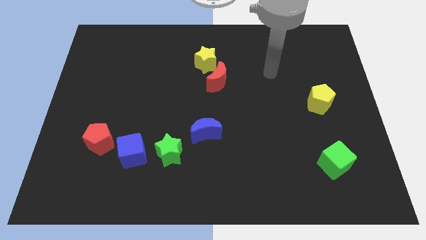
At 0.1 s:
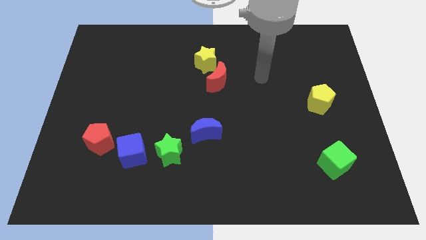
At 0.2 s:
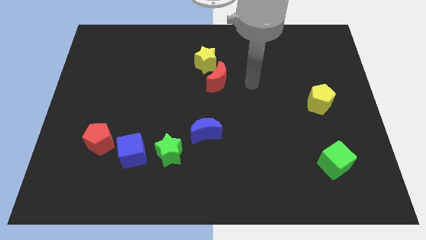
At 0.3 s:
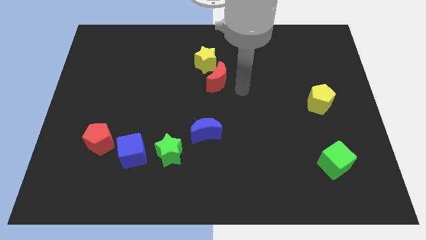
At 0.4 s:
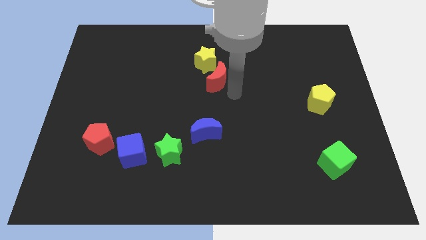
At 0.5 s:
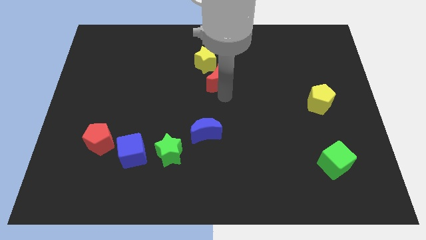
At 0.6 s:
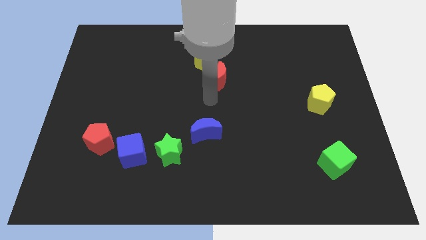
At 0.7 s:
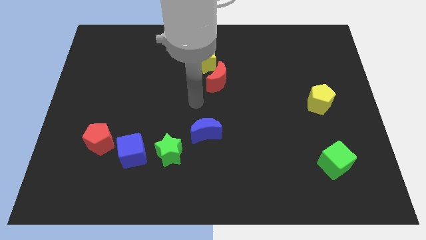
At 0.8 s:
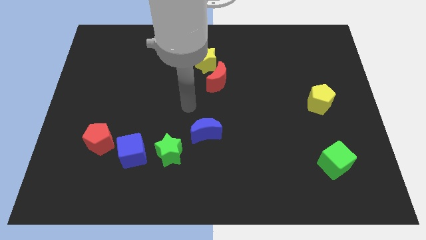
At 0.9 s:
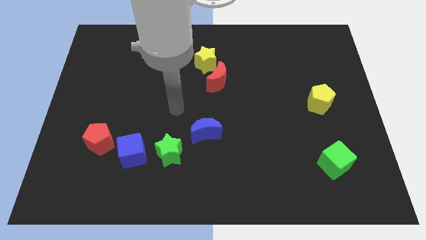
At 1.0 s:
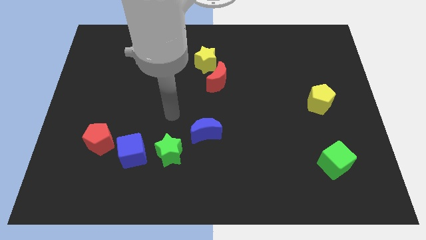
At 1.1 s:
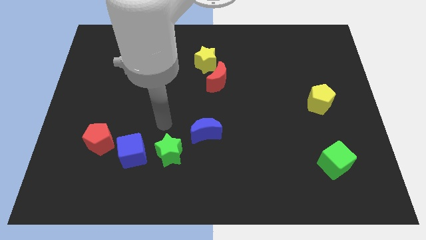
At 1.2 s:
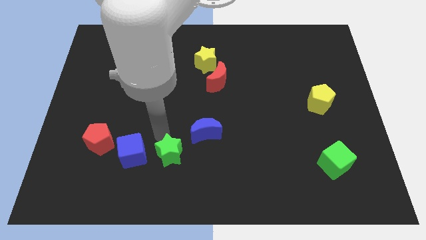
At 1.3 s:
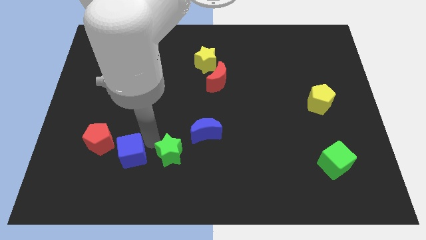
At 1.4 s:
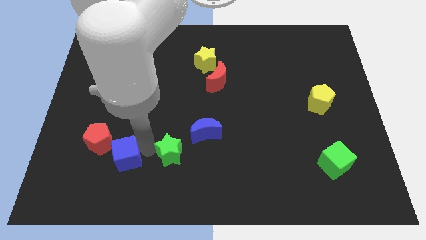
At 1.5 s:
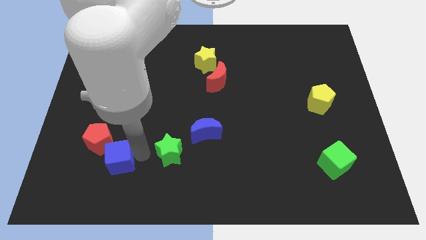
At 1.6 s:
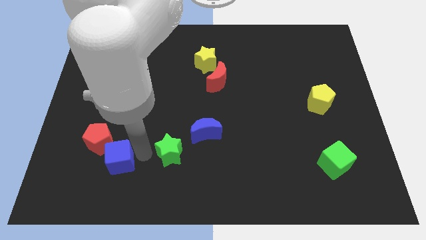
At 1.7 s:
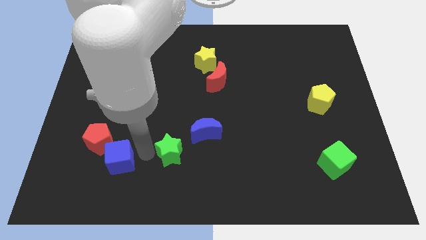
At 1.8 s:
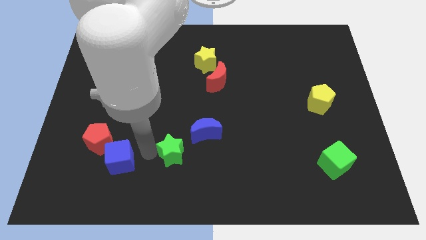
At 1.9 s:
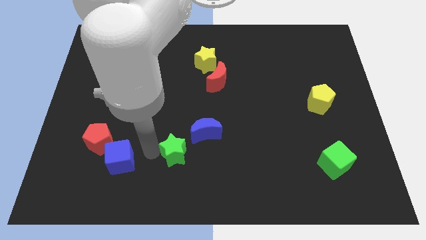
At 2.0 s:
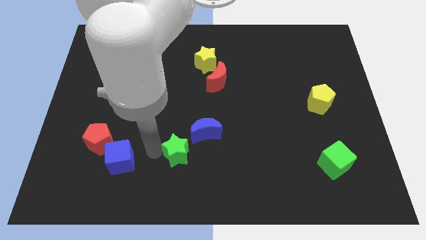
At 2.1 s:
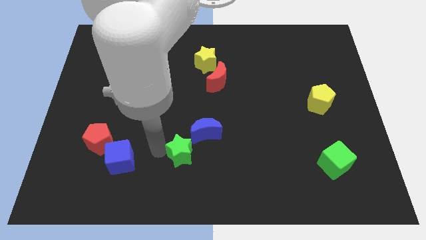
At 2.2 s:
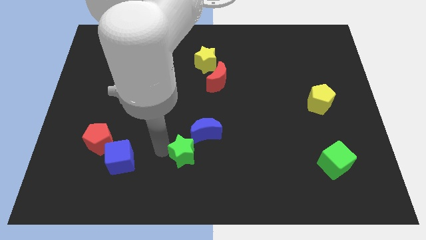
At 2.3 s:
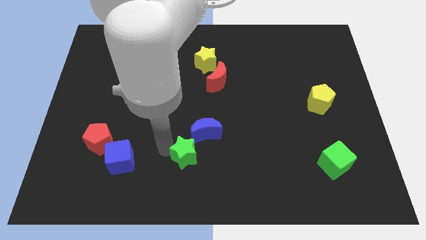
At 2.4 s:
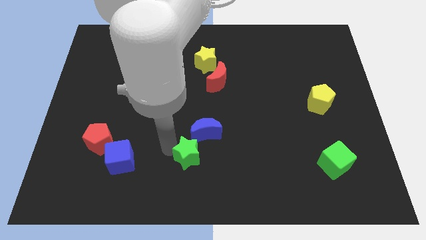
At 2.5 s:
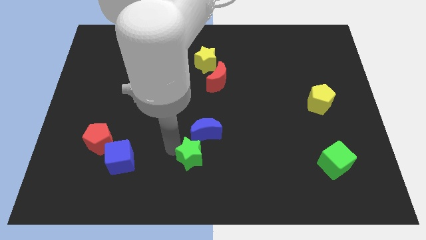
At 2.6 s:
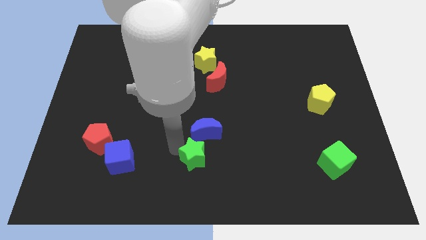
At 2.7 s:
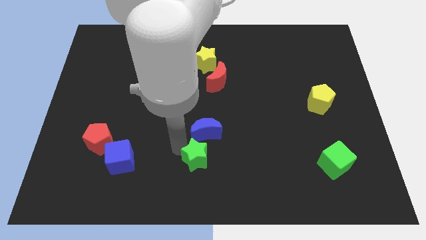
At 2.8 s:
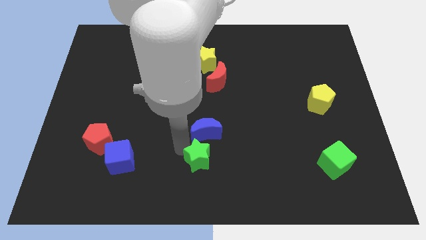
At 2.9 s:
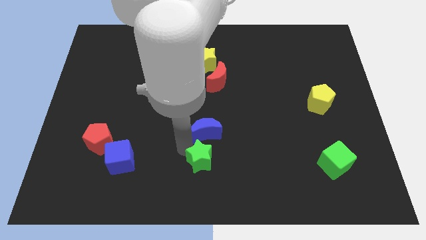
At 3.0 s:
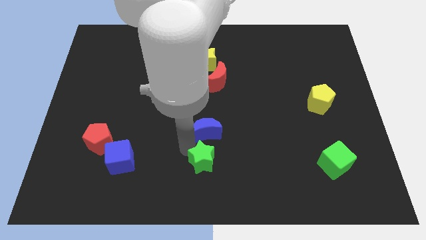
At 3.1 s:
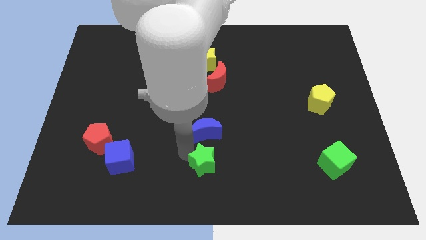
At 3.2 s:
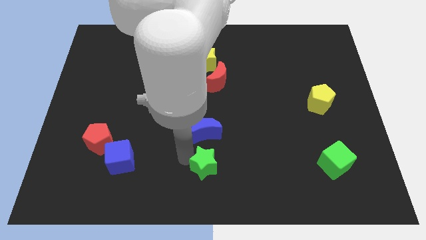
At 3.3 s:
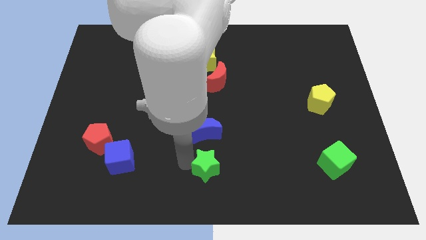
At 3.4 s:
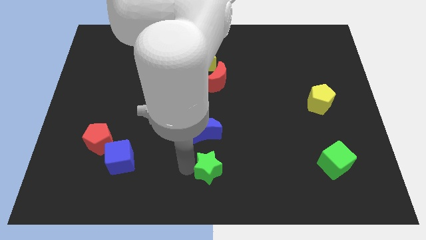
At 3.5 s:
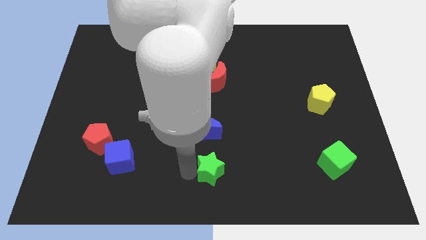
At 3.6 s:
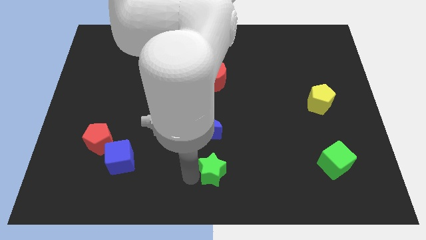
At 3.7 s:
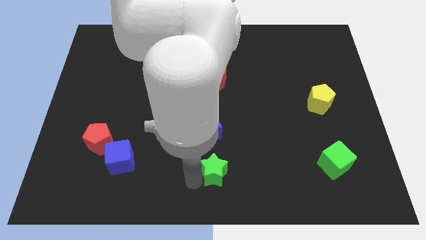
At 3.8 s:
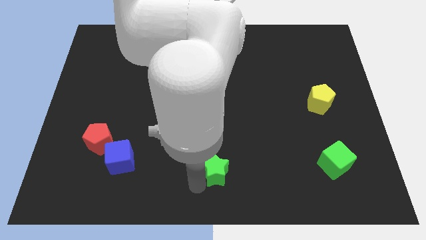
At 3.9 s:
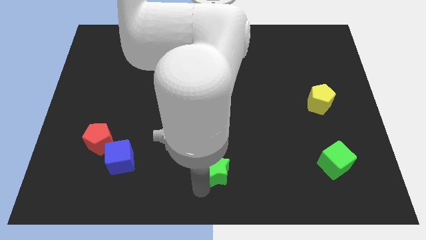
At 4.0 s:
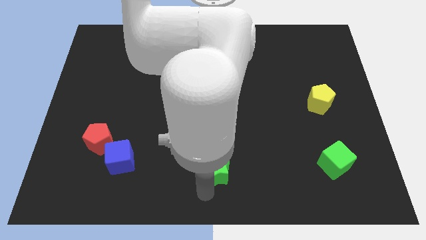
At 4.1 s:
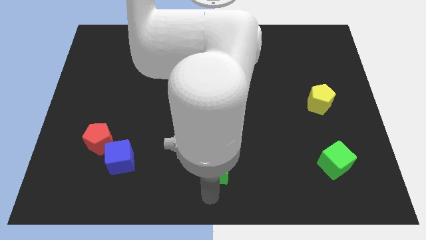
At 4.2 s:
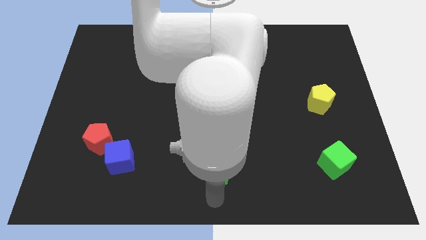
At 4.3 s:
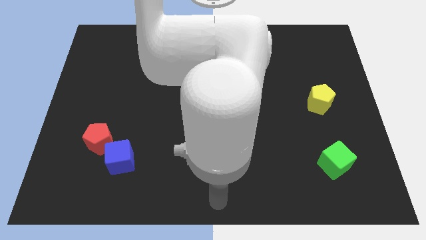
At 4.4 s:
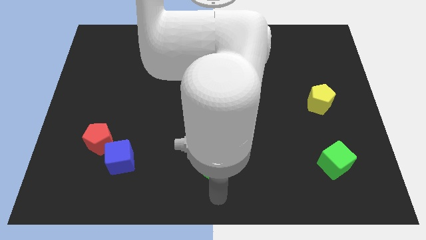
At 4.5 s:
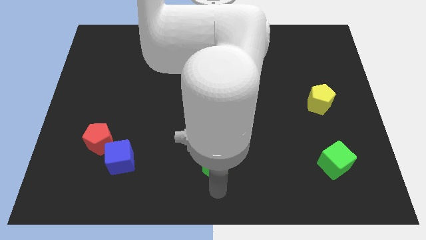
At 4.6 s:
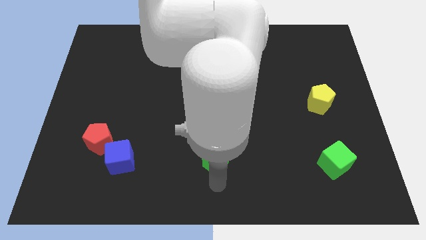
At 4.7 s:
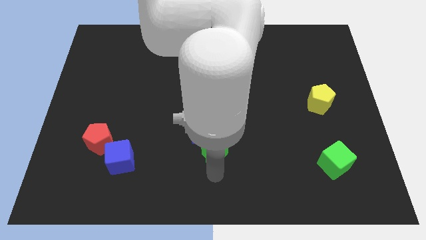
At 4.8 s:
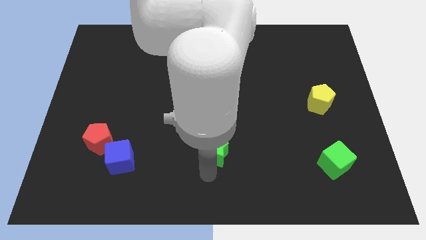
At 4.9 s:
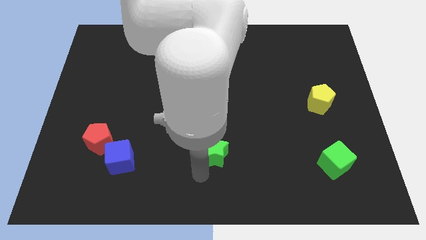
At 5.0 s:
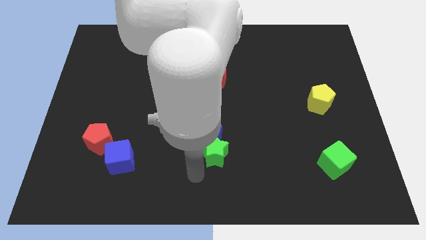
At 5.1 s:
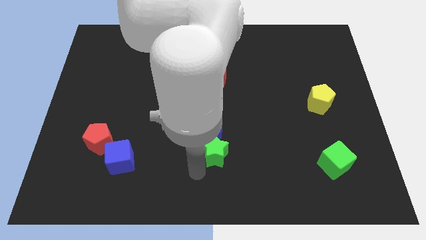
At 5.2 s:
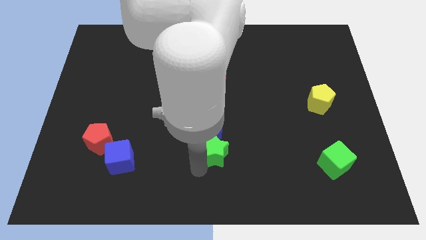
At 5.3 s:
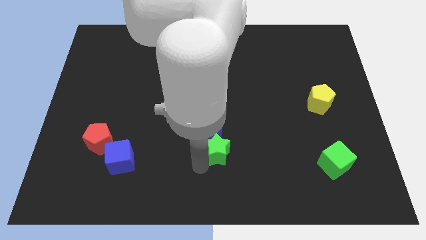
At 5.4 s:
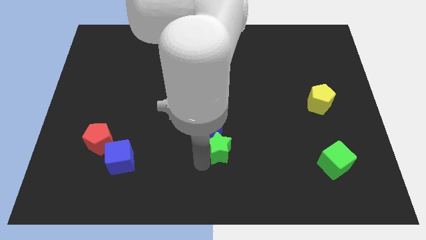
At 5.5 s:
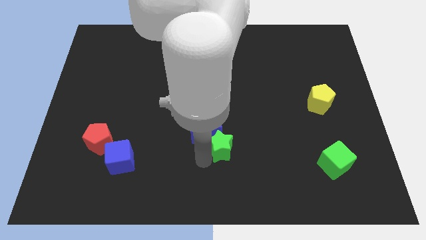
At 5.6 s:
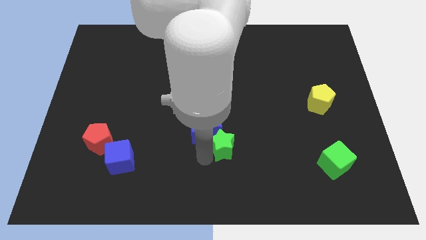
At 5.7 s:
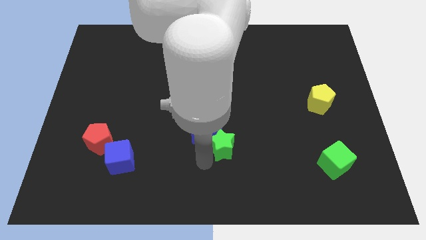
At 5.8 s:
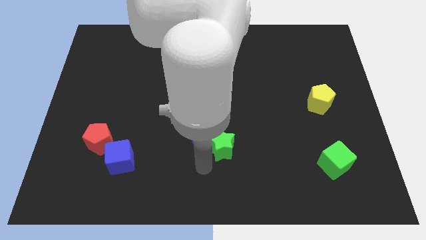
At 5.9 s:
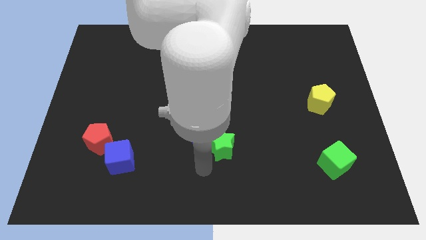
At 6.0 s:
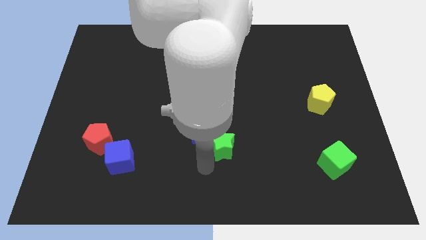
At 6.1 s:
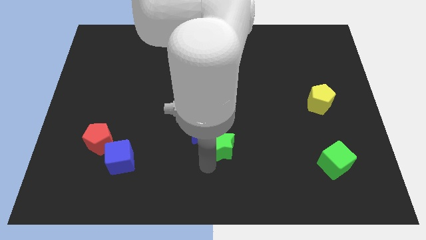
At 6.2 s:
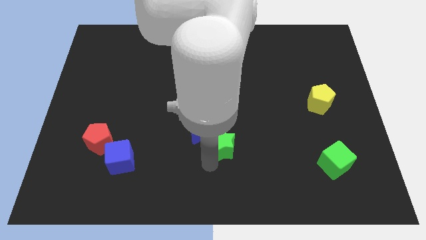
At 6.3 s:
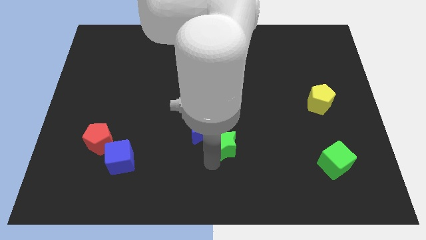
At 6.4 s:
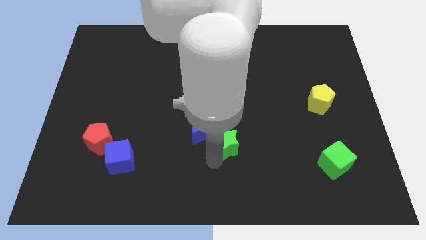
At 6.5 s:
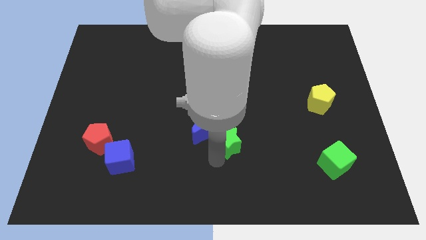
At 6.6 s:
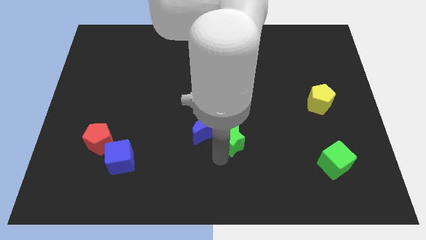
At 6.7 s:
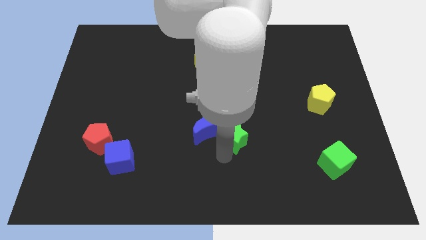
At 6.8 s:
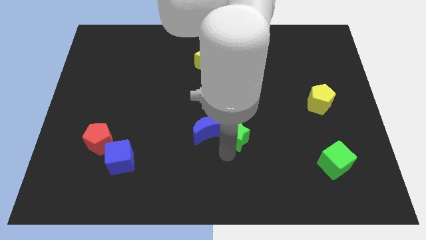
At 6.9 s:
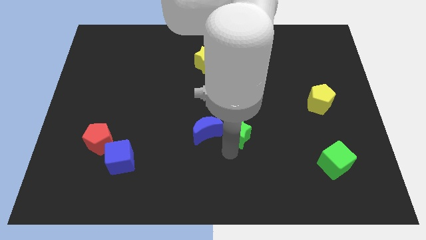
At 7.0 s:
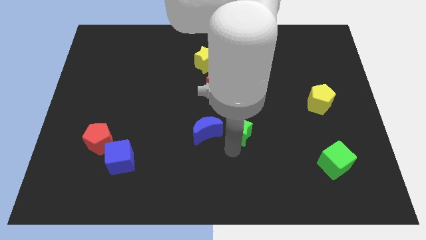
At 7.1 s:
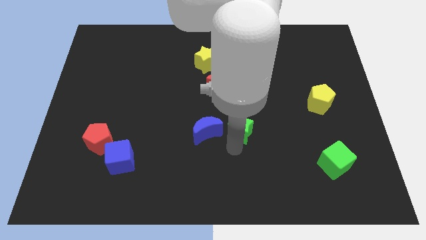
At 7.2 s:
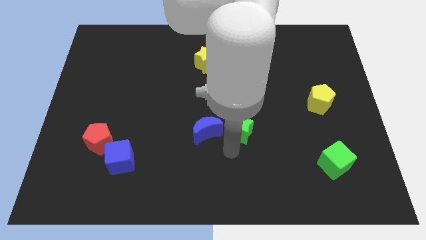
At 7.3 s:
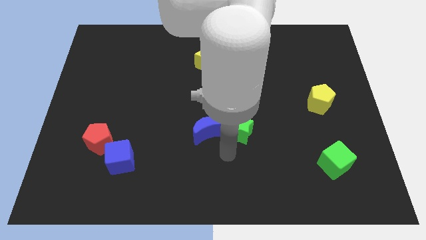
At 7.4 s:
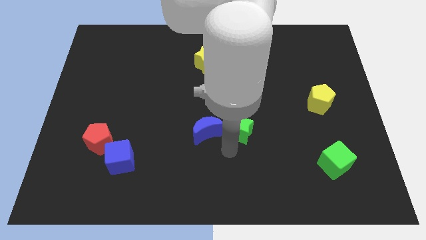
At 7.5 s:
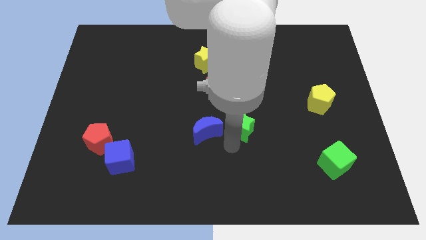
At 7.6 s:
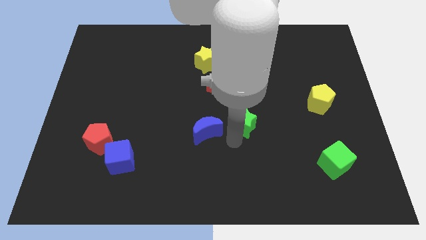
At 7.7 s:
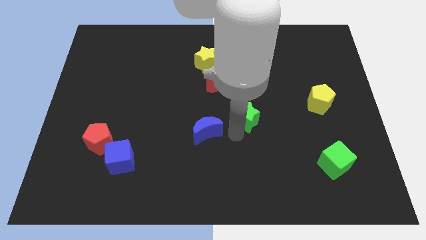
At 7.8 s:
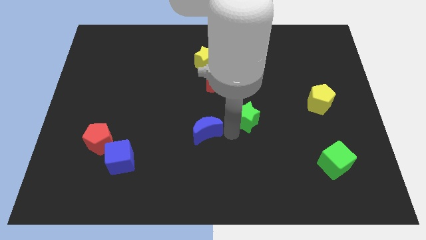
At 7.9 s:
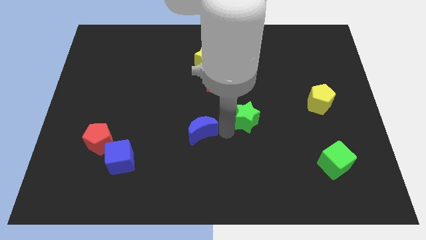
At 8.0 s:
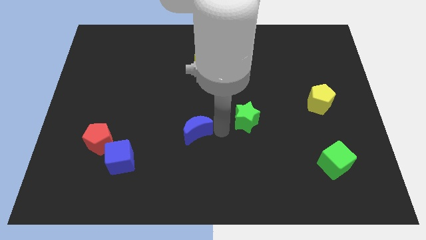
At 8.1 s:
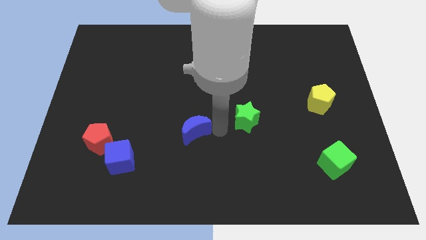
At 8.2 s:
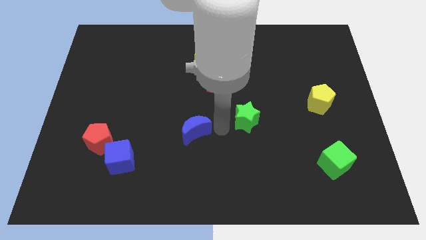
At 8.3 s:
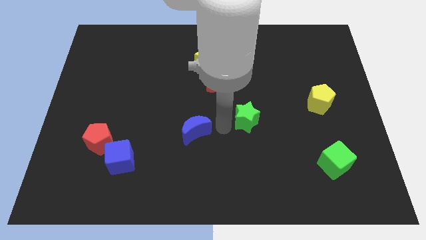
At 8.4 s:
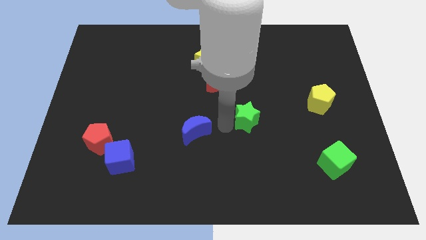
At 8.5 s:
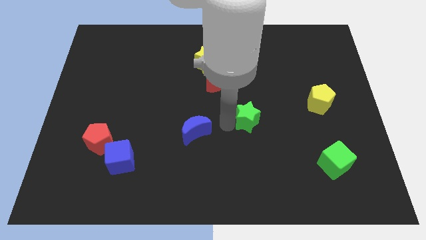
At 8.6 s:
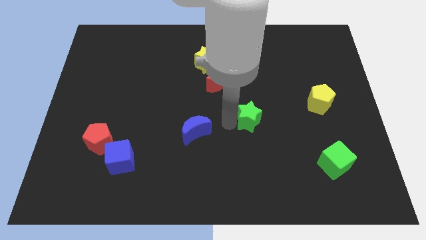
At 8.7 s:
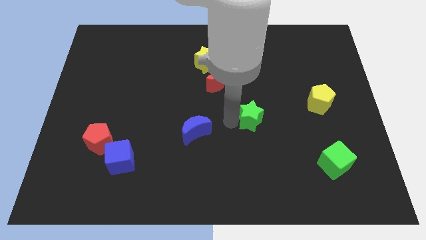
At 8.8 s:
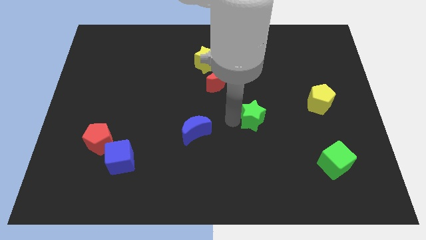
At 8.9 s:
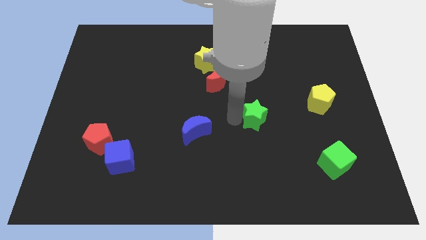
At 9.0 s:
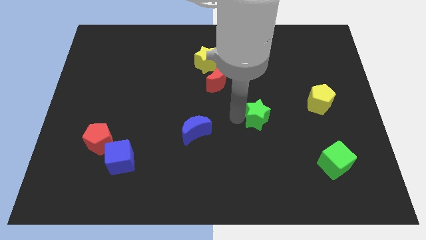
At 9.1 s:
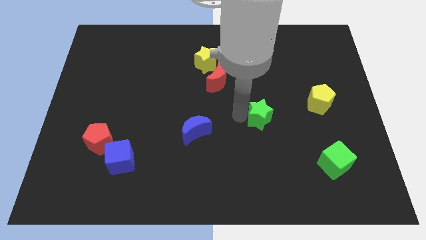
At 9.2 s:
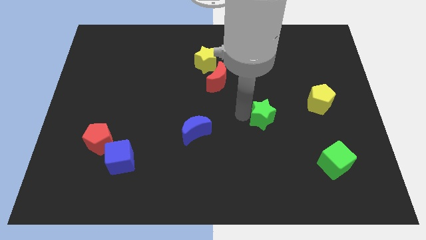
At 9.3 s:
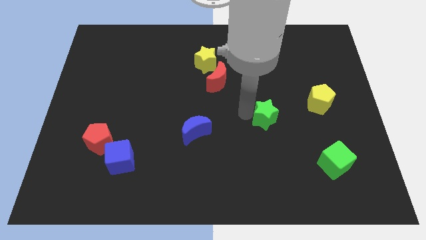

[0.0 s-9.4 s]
put the green star to the left of the yellow pentagon
